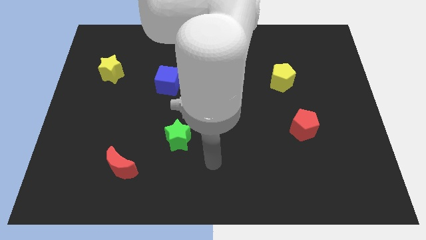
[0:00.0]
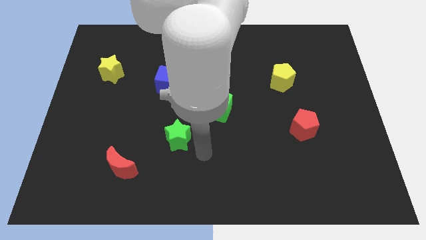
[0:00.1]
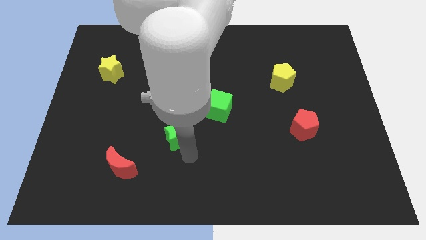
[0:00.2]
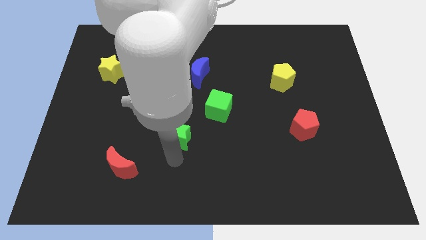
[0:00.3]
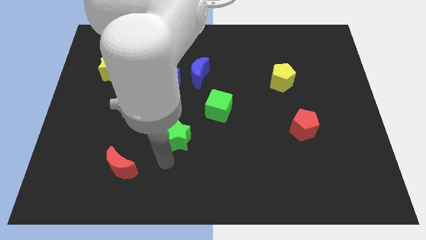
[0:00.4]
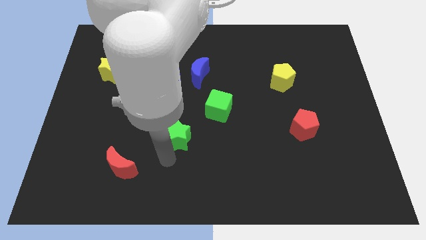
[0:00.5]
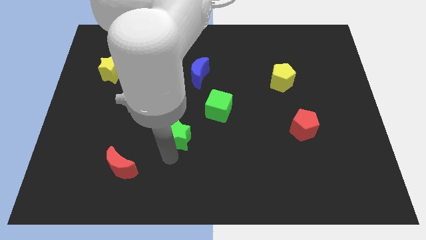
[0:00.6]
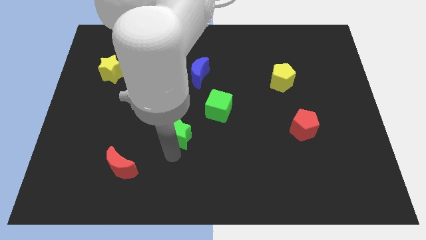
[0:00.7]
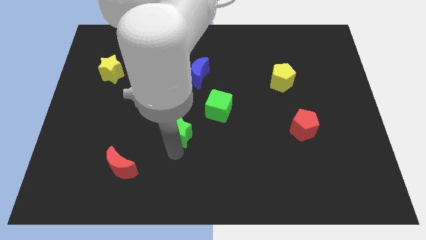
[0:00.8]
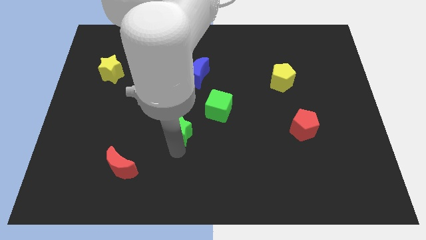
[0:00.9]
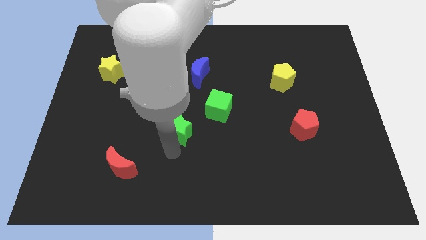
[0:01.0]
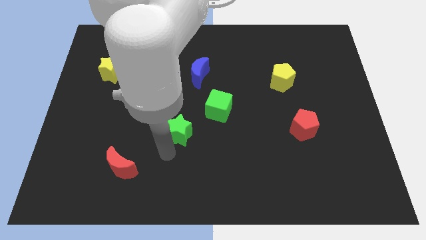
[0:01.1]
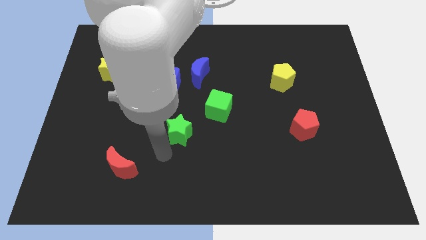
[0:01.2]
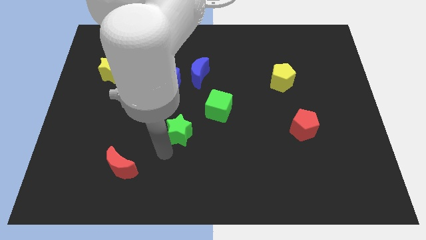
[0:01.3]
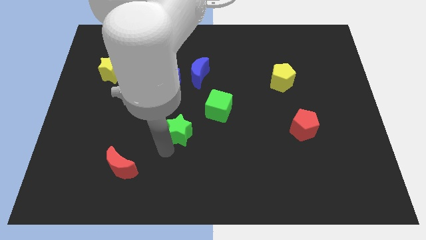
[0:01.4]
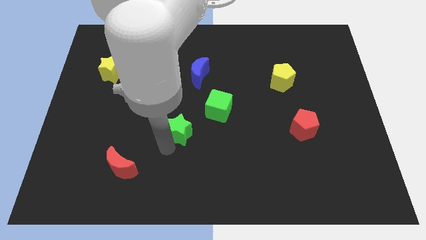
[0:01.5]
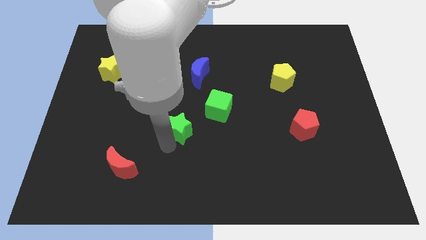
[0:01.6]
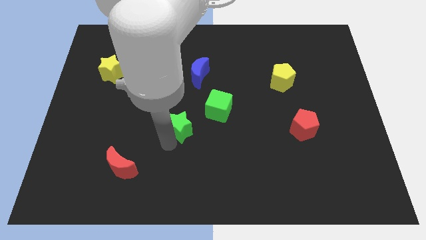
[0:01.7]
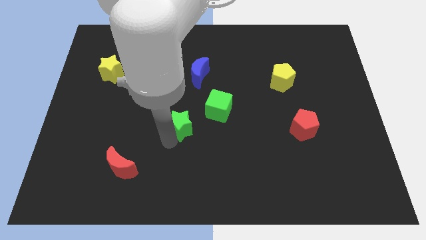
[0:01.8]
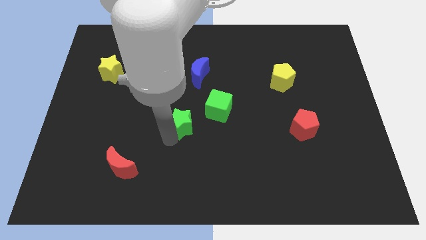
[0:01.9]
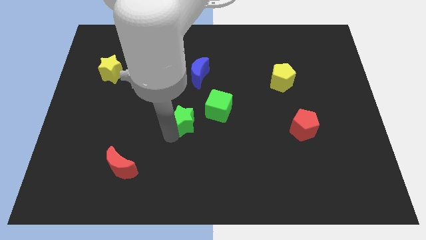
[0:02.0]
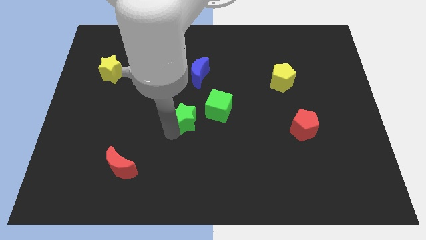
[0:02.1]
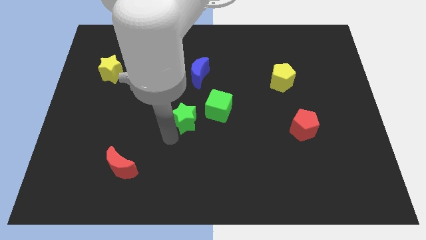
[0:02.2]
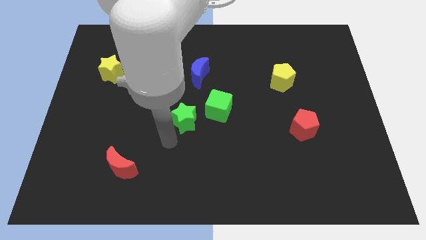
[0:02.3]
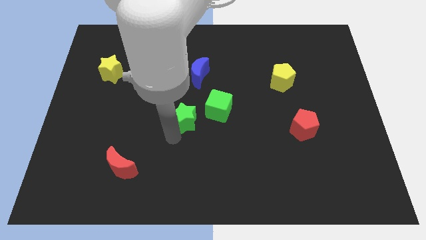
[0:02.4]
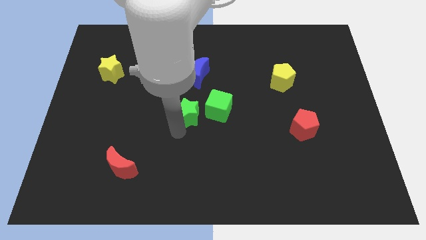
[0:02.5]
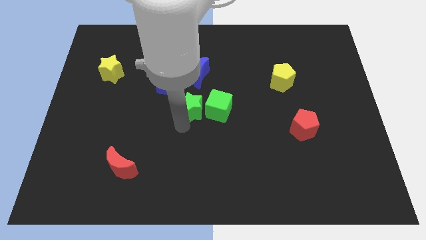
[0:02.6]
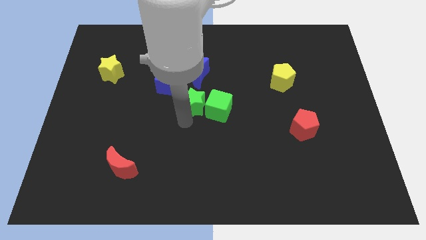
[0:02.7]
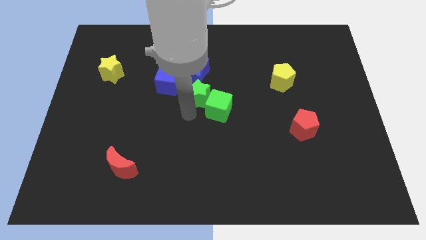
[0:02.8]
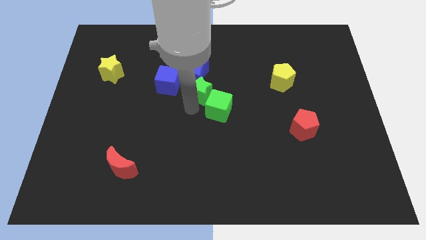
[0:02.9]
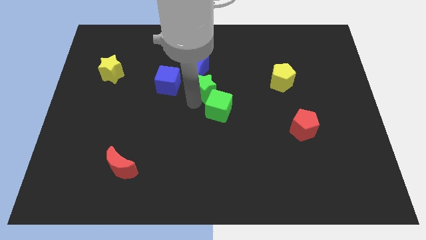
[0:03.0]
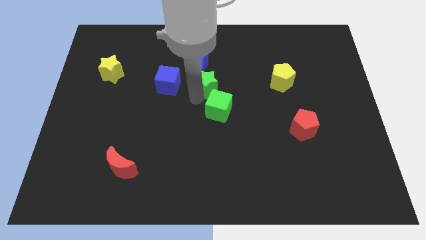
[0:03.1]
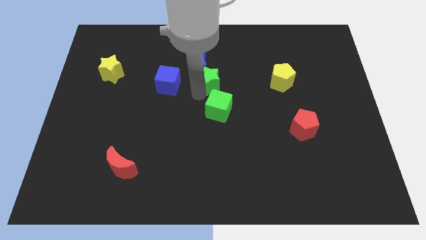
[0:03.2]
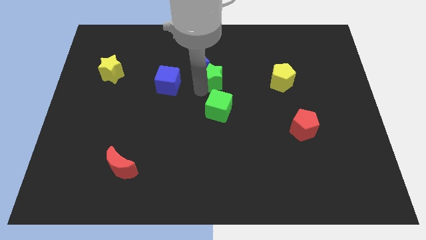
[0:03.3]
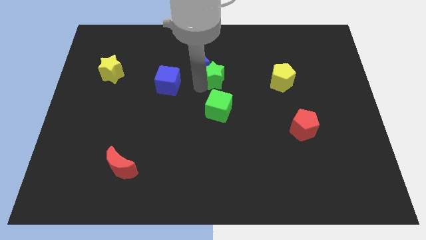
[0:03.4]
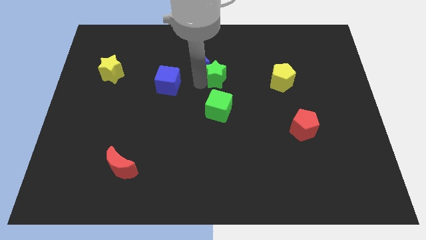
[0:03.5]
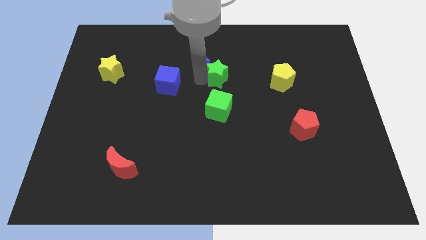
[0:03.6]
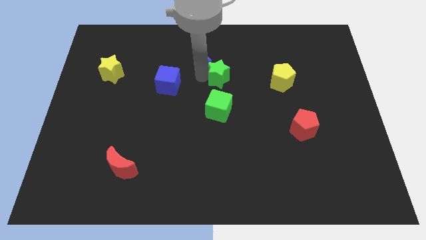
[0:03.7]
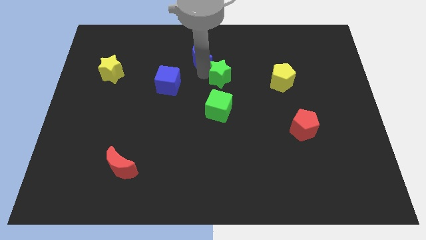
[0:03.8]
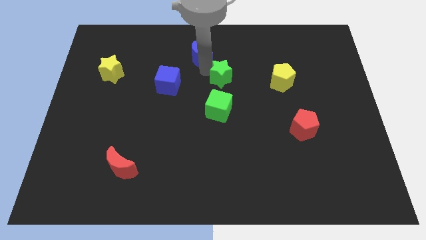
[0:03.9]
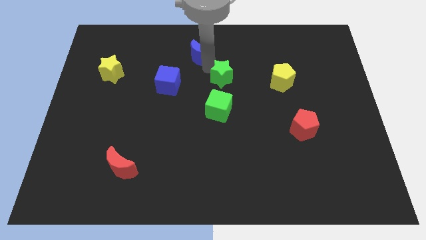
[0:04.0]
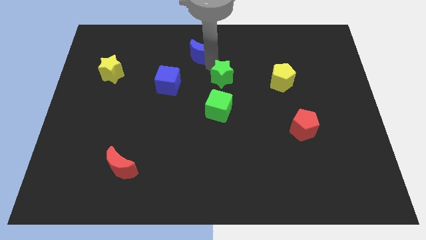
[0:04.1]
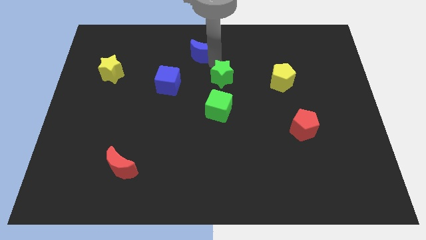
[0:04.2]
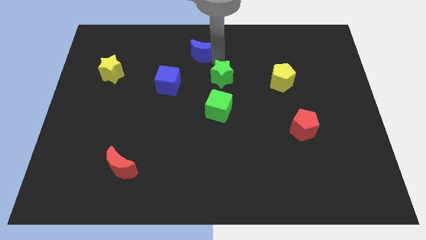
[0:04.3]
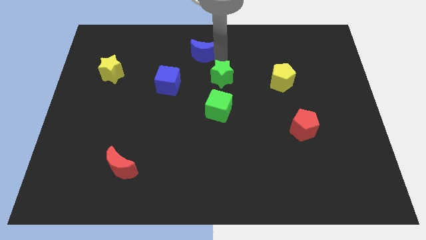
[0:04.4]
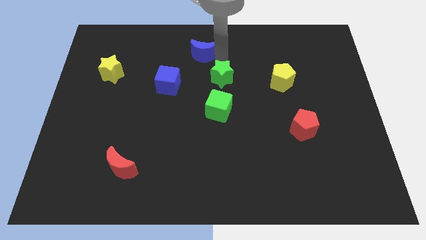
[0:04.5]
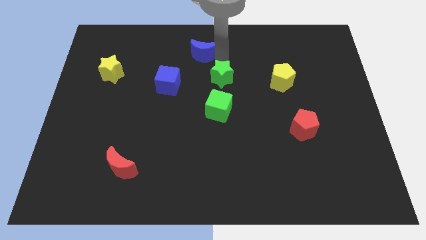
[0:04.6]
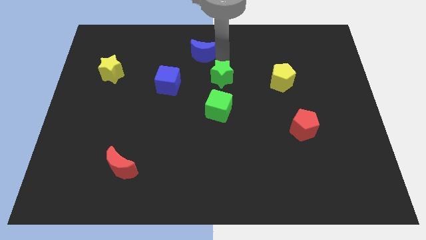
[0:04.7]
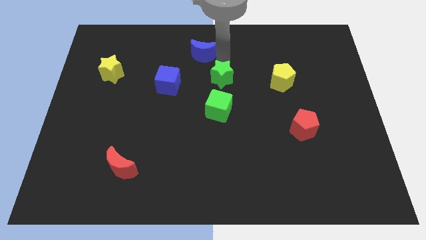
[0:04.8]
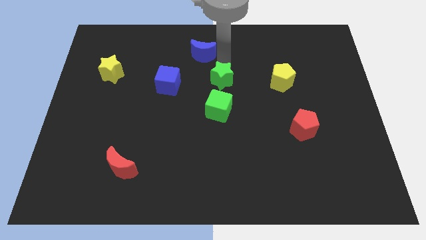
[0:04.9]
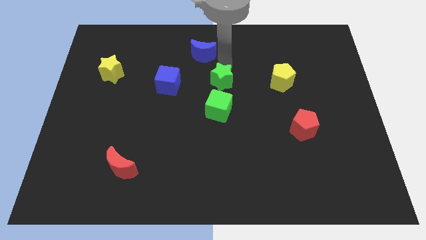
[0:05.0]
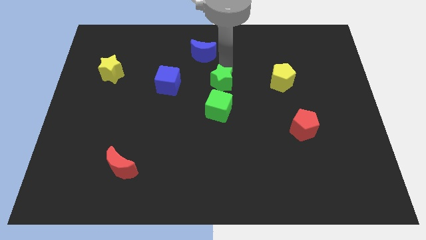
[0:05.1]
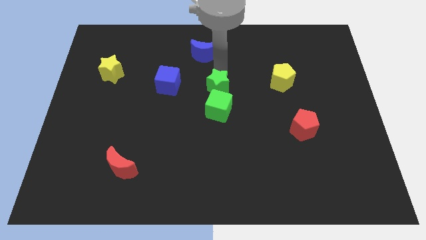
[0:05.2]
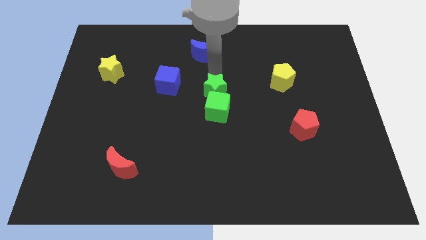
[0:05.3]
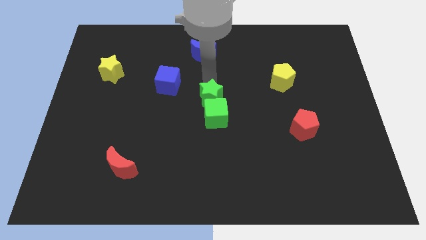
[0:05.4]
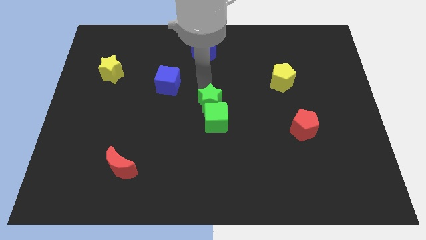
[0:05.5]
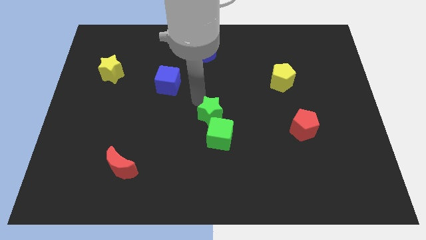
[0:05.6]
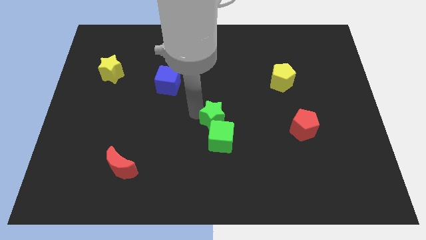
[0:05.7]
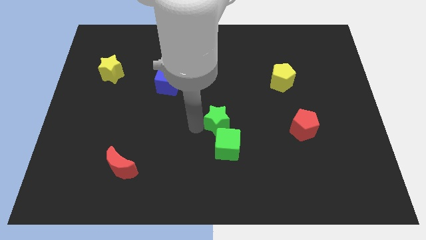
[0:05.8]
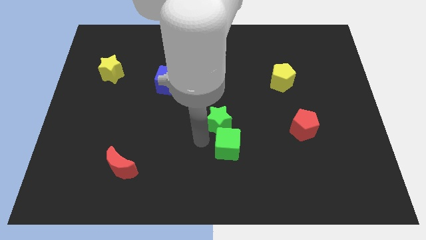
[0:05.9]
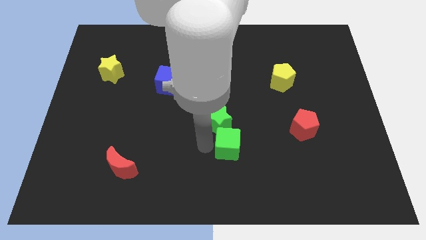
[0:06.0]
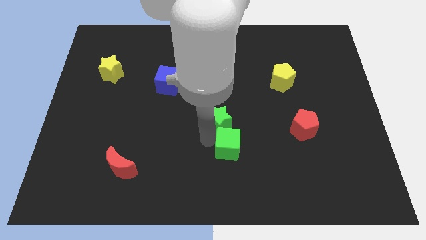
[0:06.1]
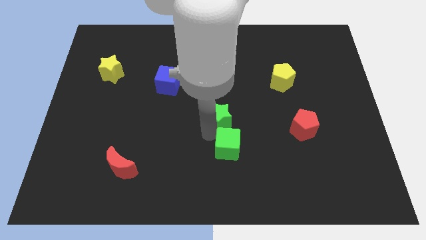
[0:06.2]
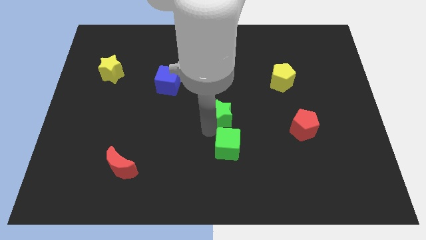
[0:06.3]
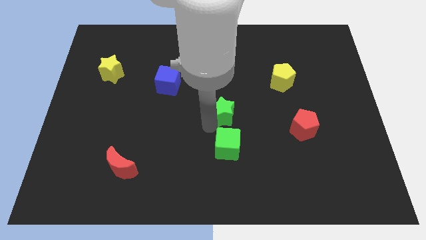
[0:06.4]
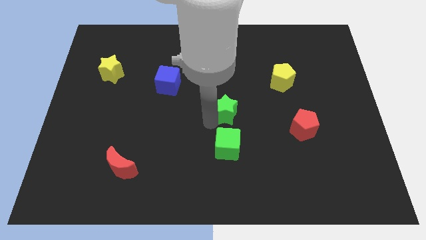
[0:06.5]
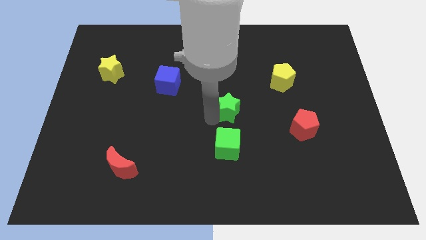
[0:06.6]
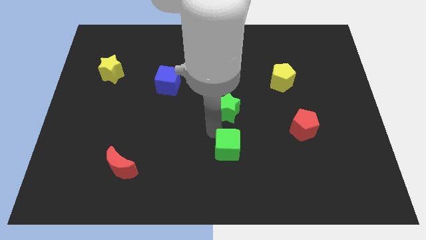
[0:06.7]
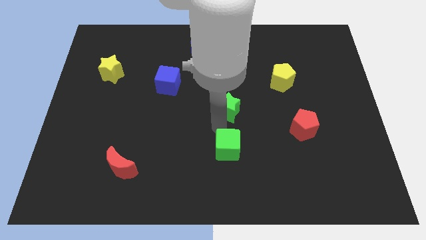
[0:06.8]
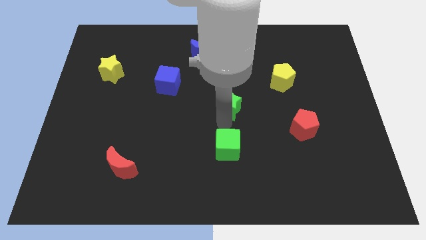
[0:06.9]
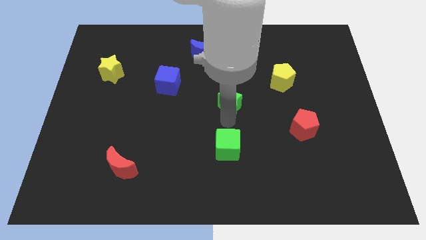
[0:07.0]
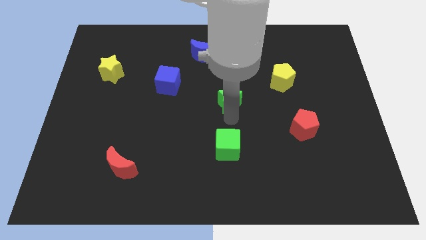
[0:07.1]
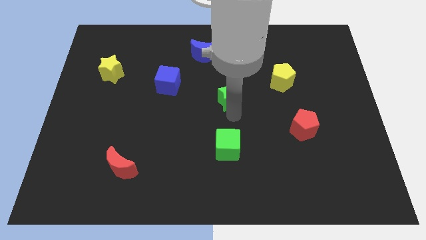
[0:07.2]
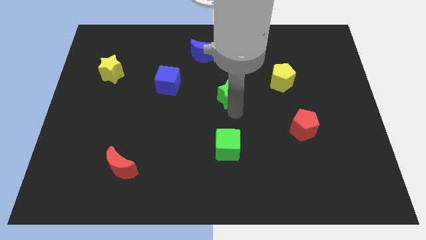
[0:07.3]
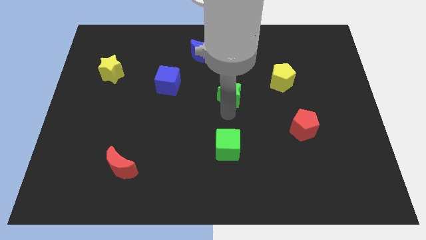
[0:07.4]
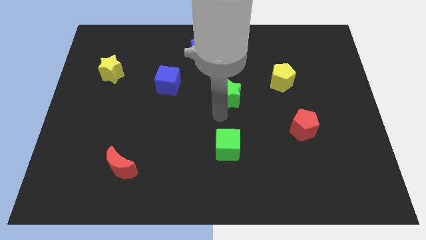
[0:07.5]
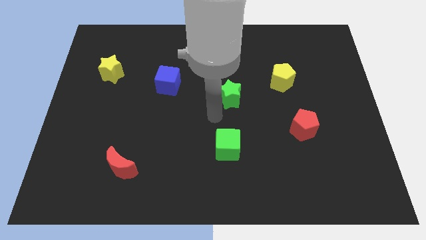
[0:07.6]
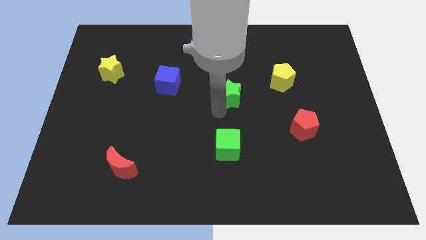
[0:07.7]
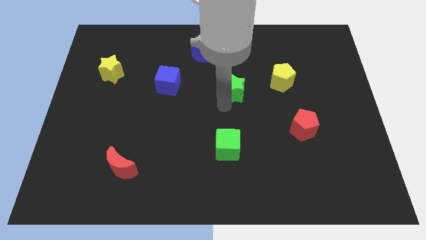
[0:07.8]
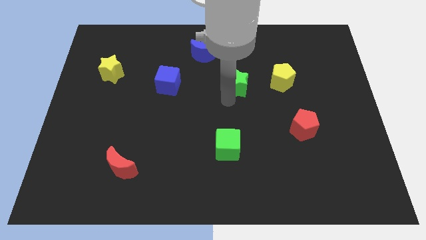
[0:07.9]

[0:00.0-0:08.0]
slide the green star up and then to the right
